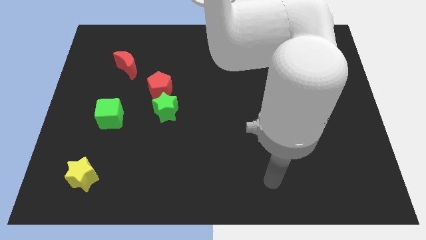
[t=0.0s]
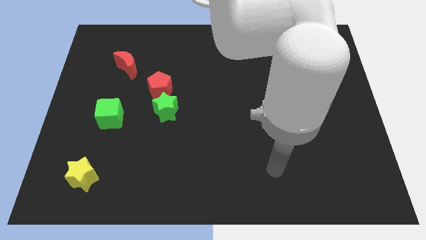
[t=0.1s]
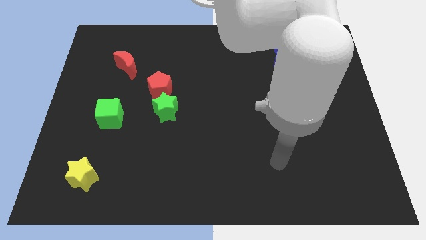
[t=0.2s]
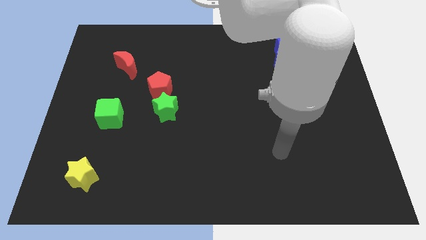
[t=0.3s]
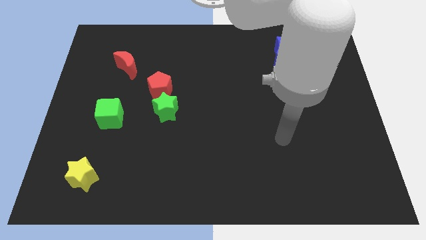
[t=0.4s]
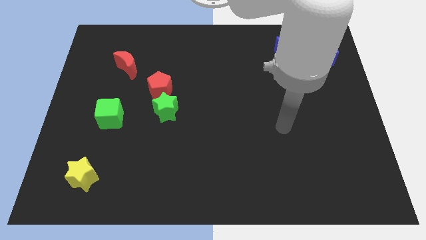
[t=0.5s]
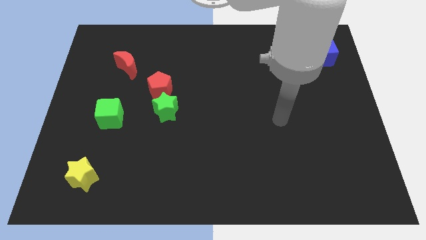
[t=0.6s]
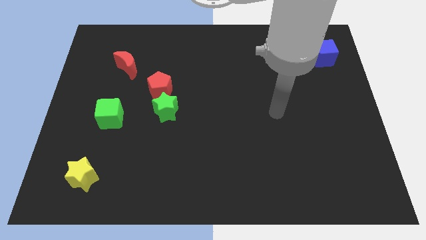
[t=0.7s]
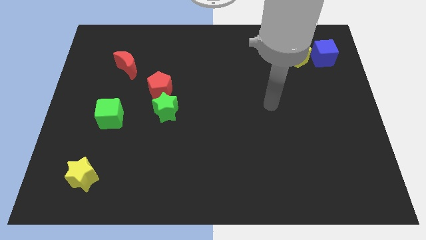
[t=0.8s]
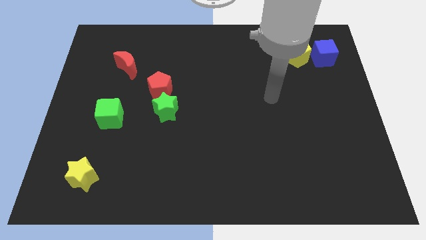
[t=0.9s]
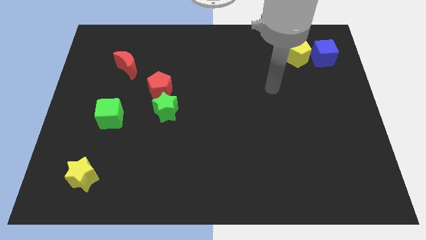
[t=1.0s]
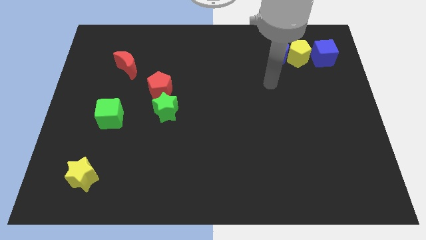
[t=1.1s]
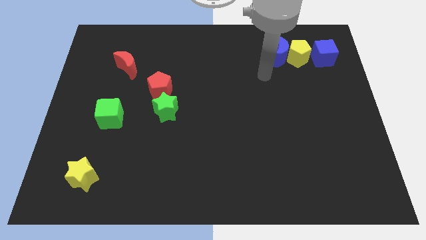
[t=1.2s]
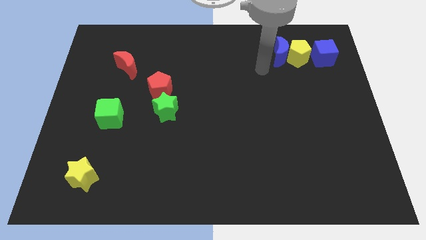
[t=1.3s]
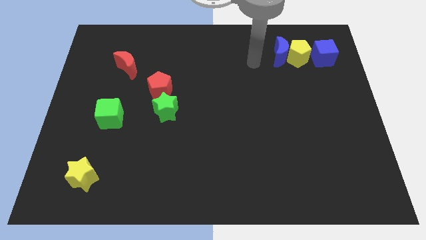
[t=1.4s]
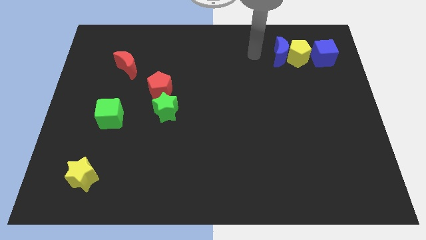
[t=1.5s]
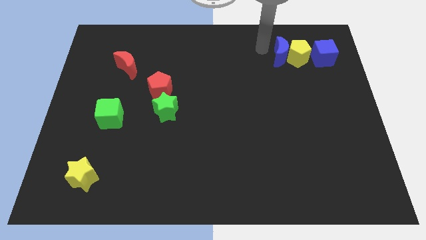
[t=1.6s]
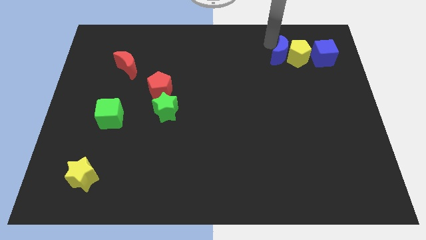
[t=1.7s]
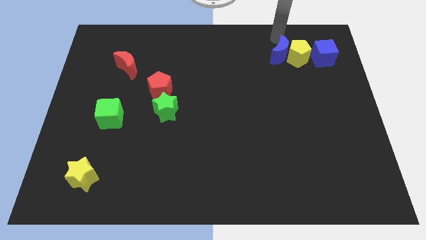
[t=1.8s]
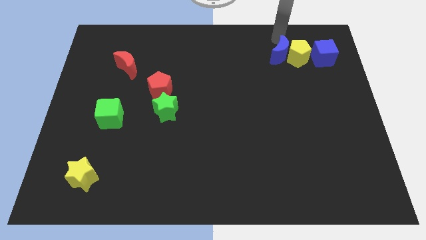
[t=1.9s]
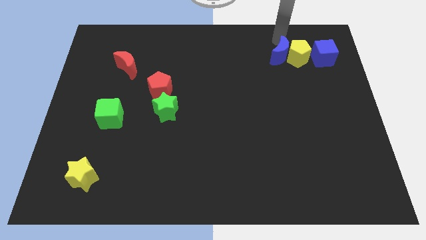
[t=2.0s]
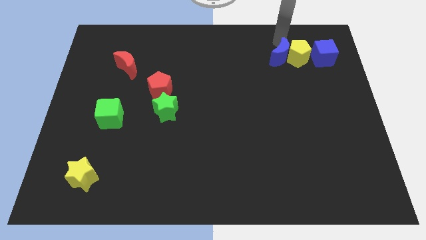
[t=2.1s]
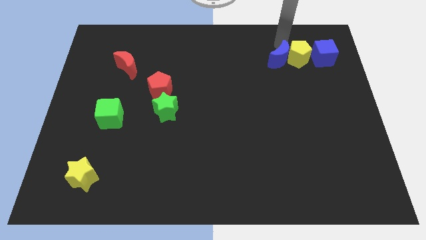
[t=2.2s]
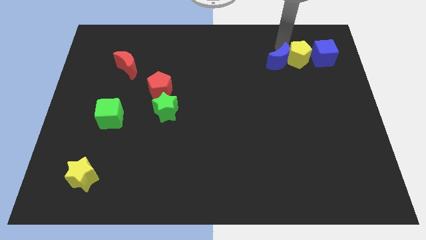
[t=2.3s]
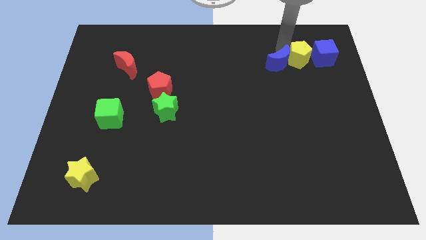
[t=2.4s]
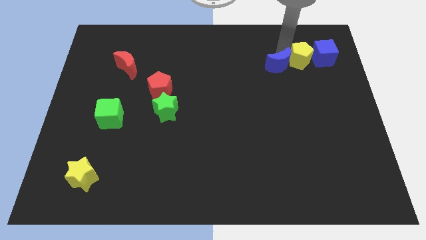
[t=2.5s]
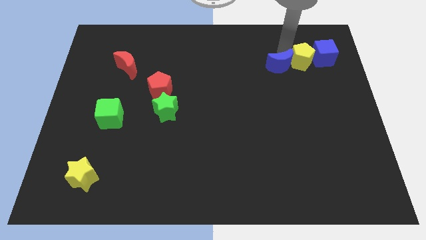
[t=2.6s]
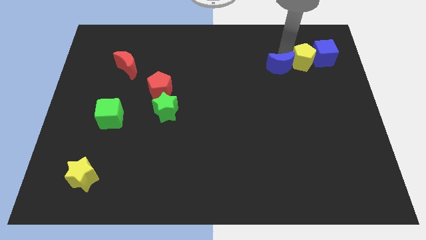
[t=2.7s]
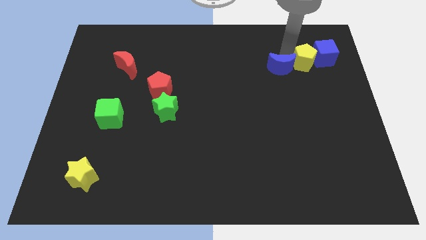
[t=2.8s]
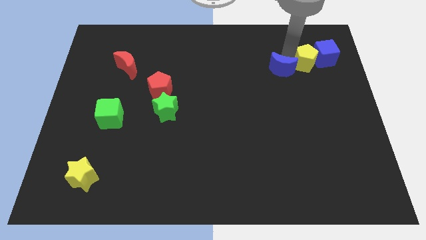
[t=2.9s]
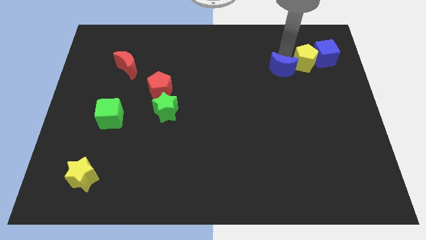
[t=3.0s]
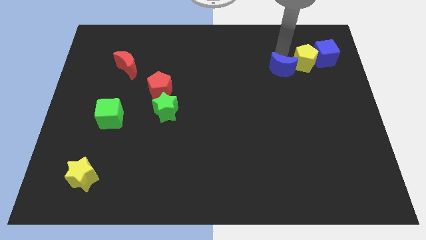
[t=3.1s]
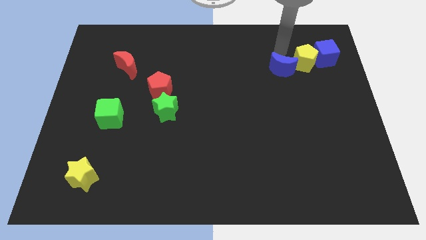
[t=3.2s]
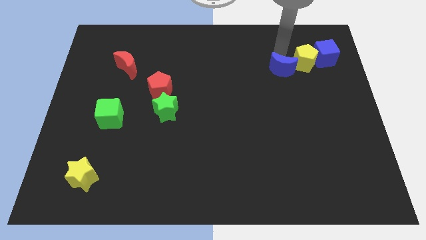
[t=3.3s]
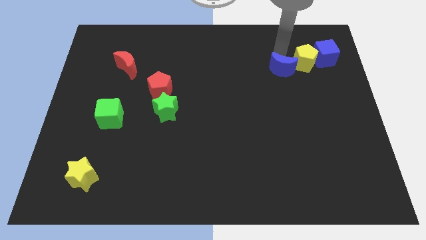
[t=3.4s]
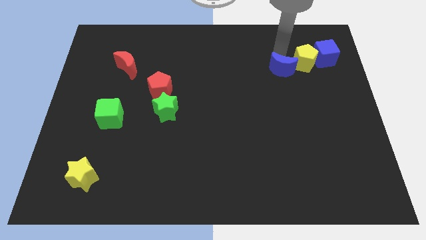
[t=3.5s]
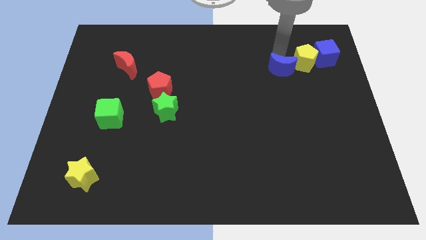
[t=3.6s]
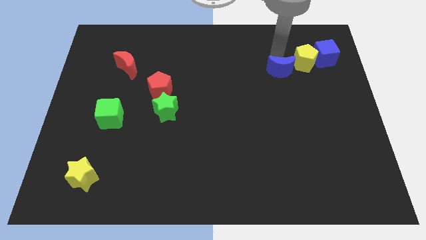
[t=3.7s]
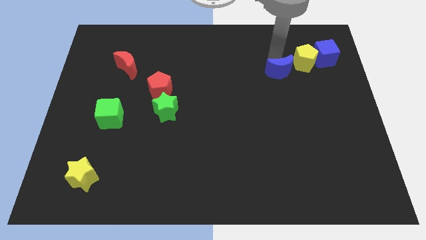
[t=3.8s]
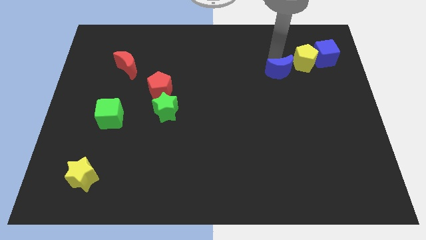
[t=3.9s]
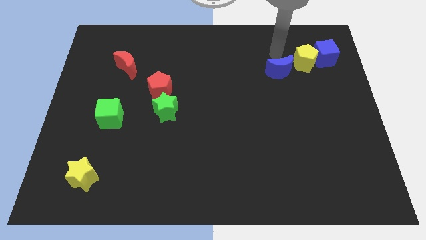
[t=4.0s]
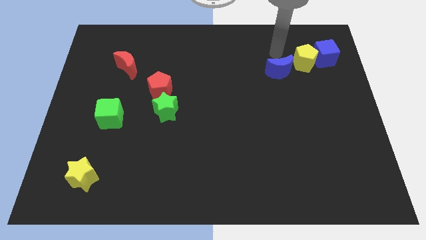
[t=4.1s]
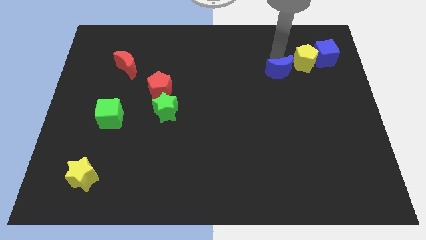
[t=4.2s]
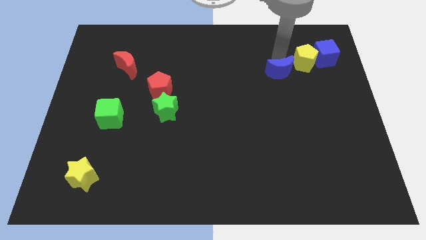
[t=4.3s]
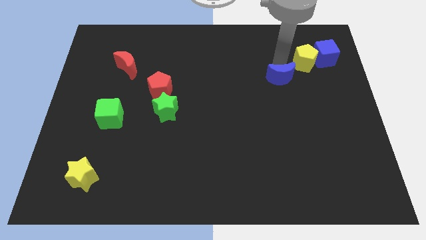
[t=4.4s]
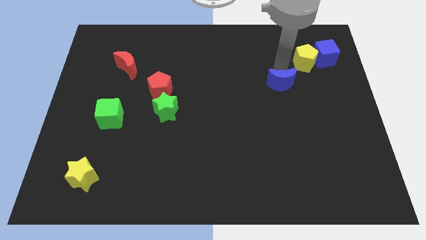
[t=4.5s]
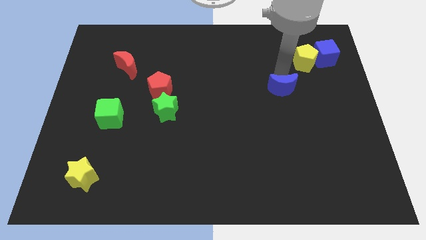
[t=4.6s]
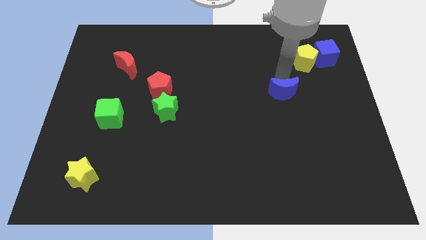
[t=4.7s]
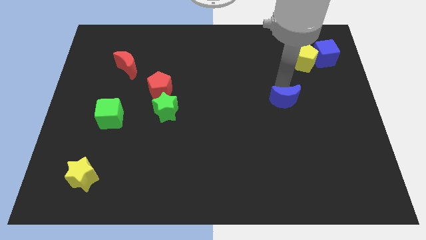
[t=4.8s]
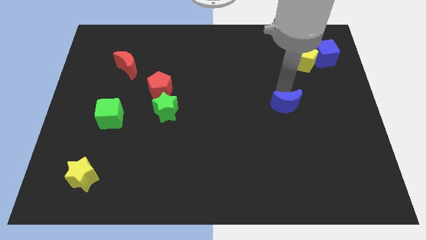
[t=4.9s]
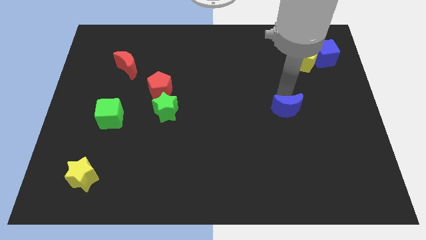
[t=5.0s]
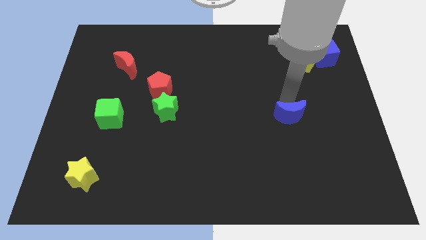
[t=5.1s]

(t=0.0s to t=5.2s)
push the blue moon downwards

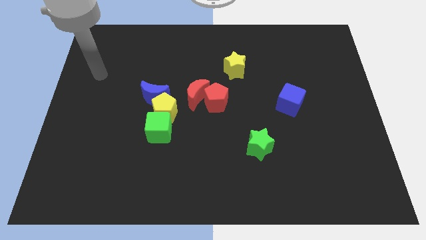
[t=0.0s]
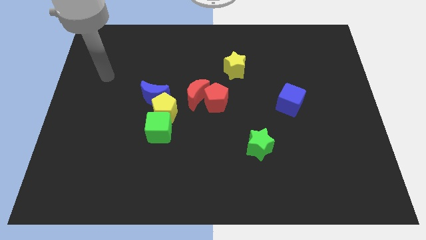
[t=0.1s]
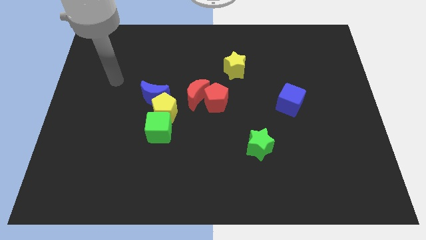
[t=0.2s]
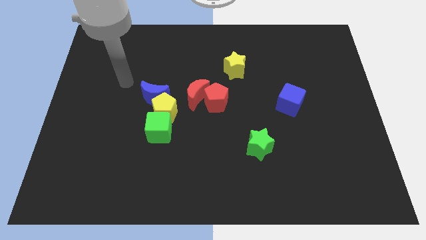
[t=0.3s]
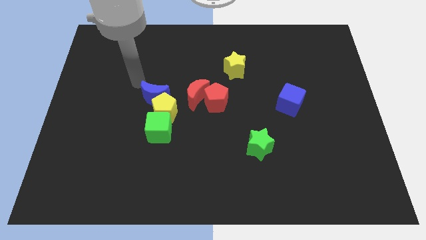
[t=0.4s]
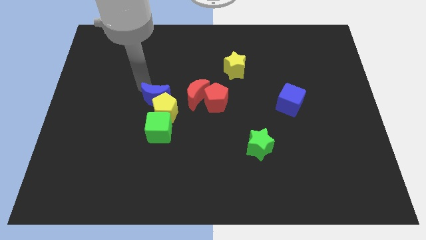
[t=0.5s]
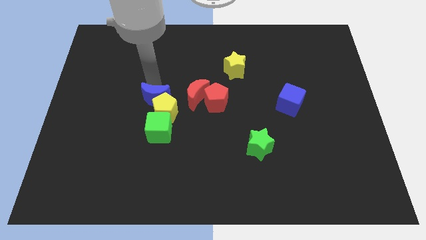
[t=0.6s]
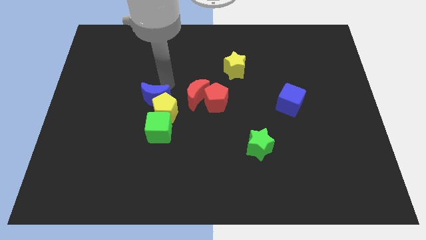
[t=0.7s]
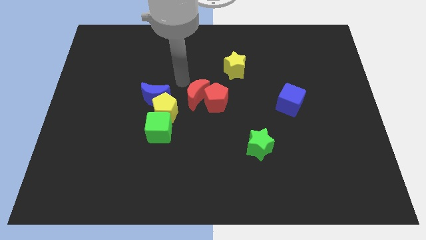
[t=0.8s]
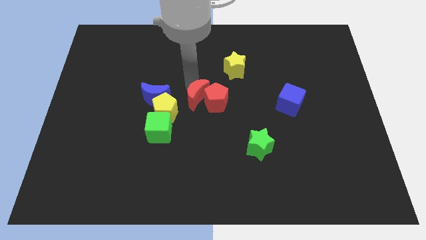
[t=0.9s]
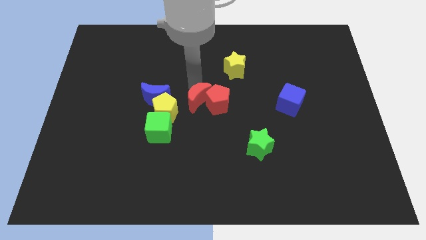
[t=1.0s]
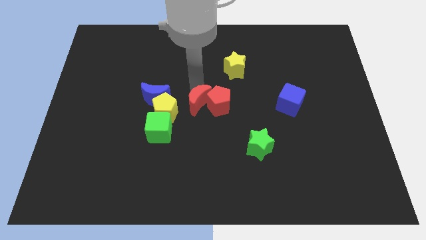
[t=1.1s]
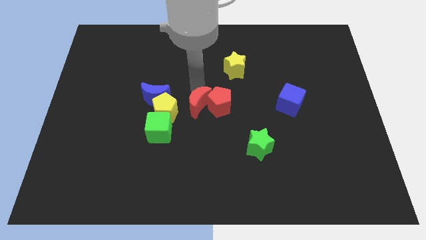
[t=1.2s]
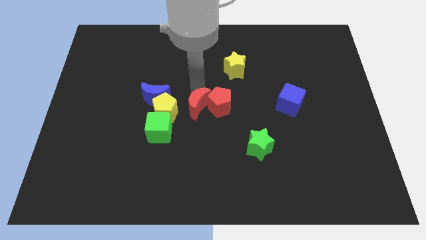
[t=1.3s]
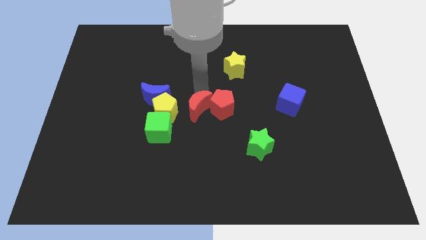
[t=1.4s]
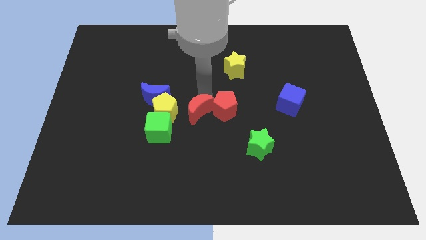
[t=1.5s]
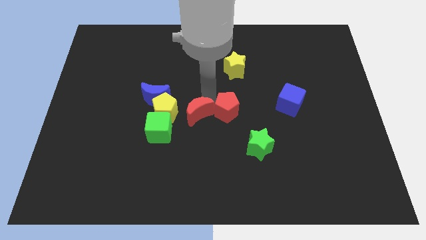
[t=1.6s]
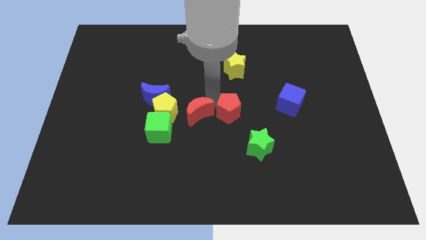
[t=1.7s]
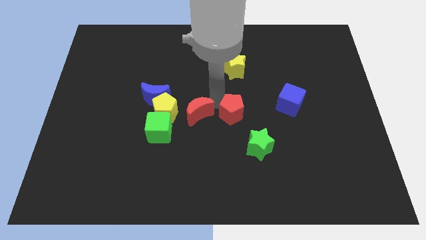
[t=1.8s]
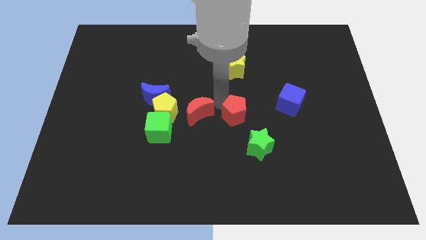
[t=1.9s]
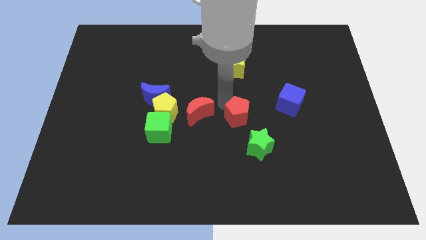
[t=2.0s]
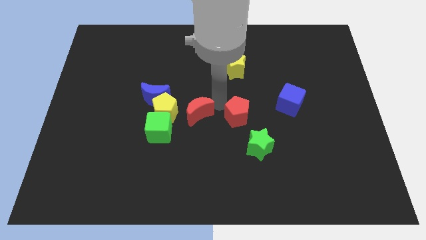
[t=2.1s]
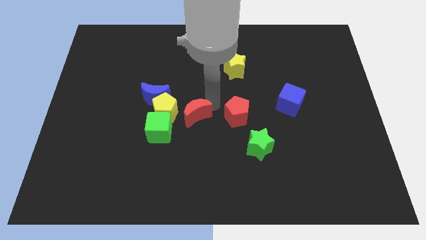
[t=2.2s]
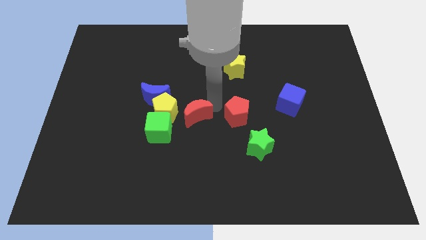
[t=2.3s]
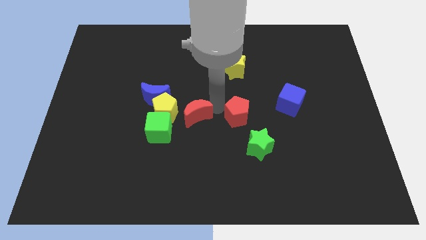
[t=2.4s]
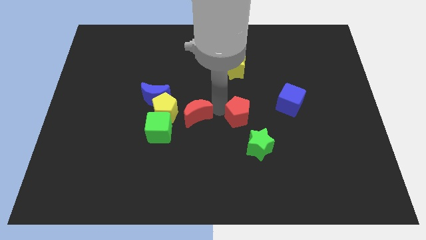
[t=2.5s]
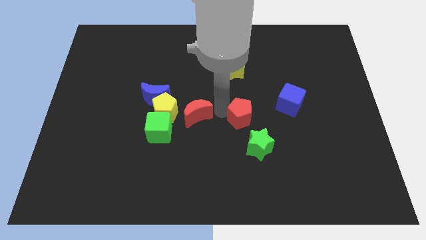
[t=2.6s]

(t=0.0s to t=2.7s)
push the red pentagon downwards and right a little
